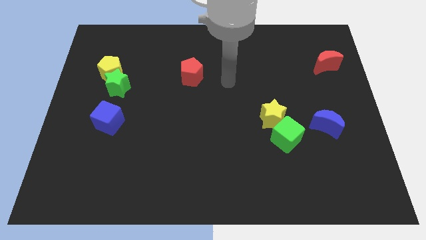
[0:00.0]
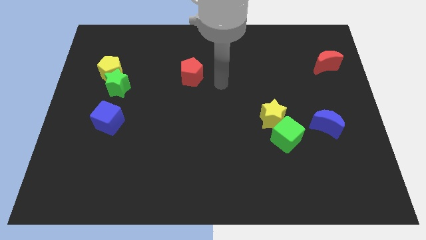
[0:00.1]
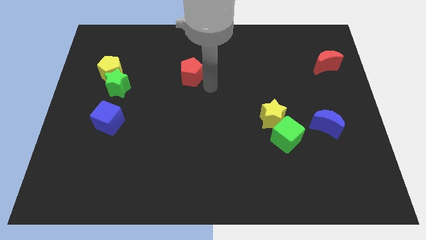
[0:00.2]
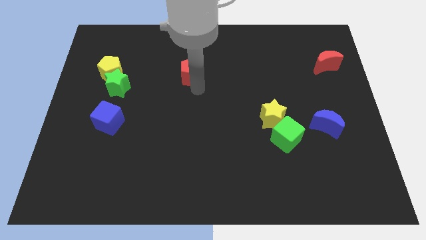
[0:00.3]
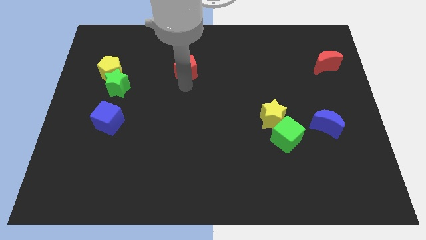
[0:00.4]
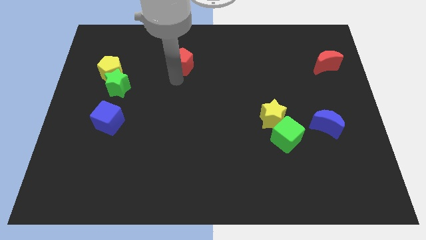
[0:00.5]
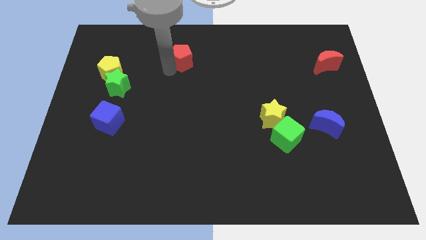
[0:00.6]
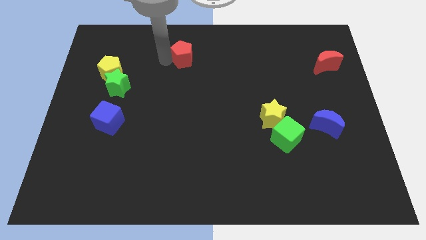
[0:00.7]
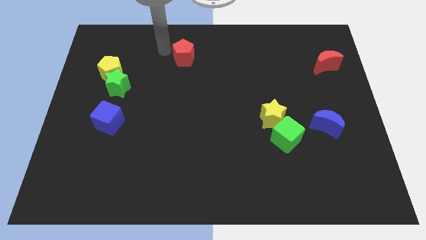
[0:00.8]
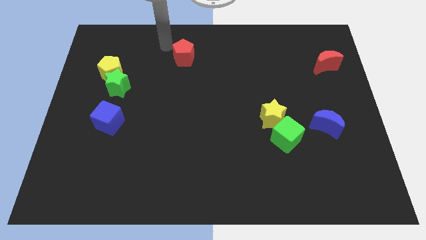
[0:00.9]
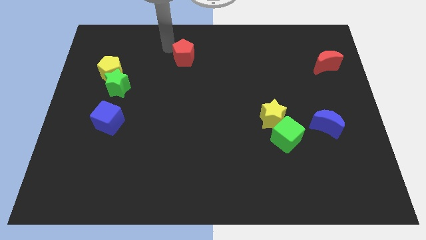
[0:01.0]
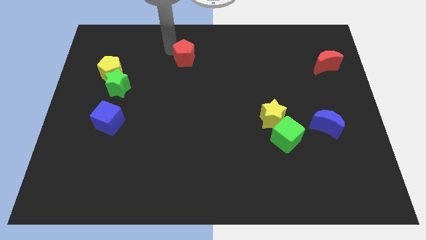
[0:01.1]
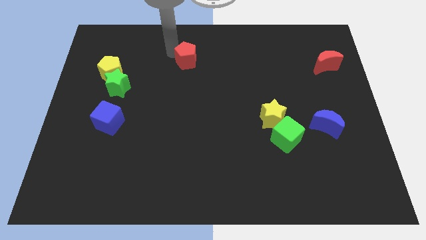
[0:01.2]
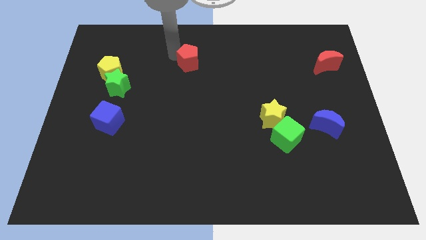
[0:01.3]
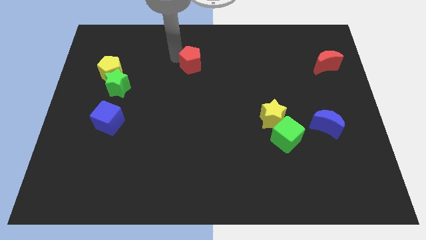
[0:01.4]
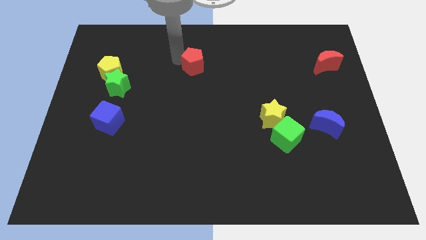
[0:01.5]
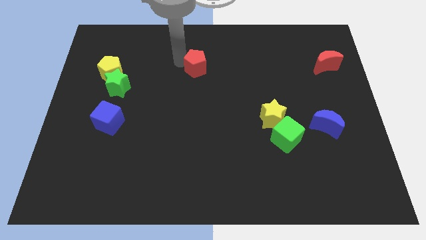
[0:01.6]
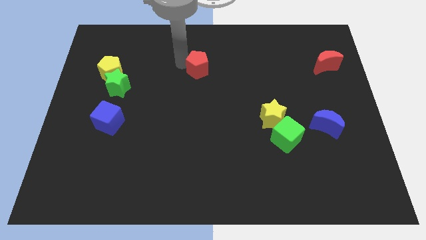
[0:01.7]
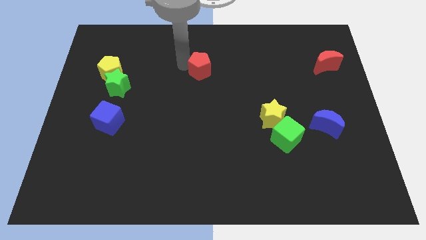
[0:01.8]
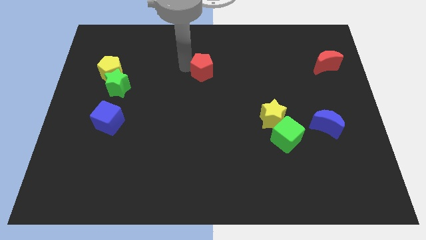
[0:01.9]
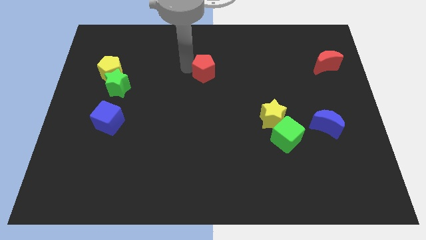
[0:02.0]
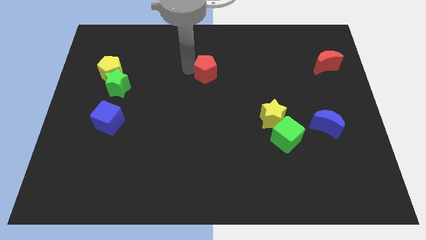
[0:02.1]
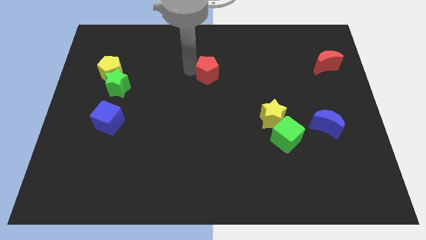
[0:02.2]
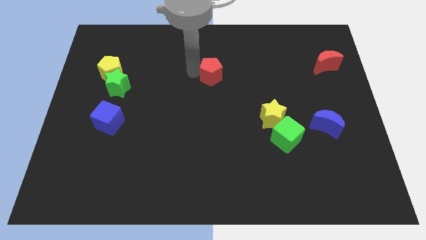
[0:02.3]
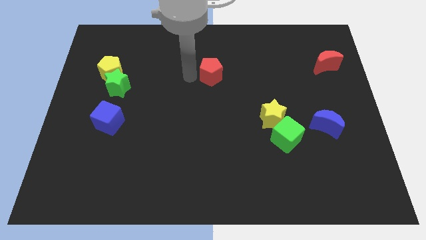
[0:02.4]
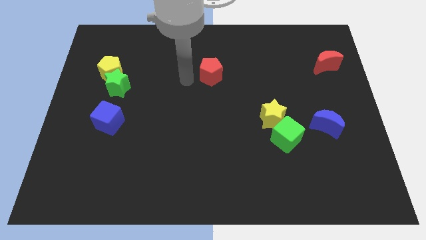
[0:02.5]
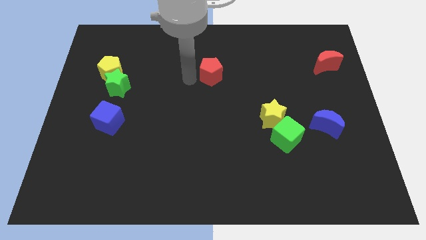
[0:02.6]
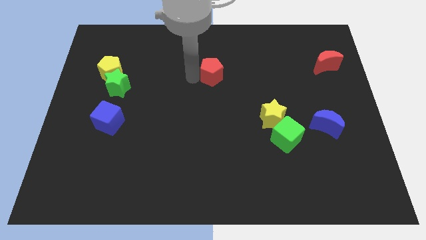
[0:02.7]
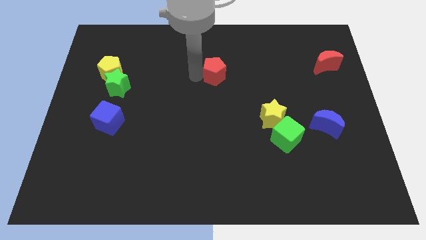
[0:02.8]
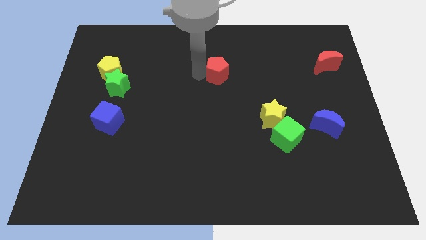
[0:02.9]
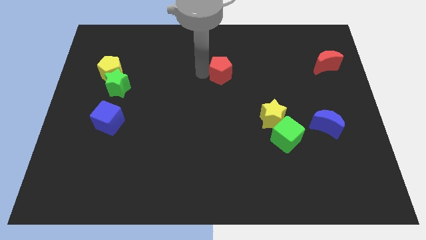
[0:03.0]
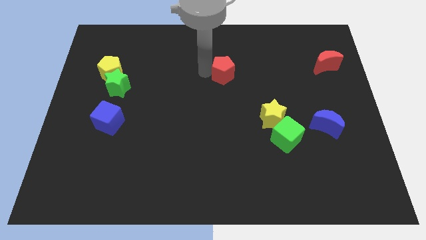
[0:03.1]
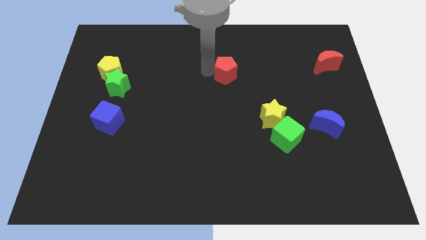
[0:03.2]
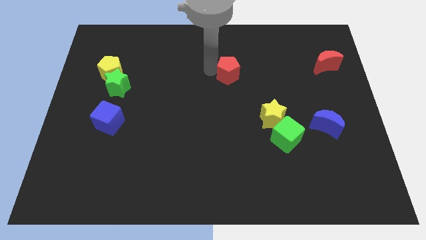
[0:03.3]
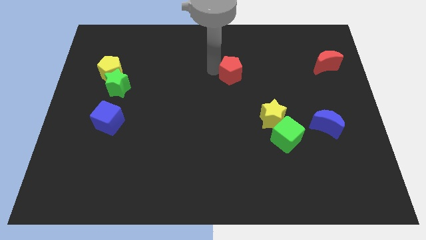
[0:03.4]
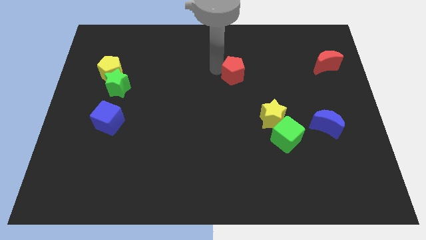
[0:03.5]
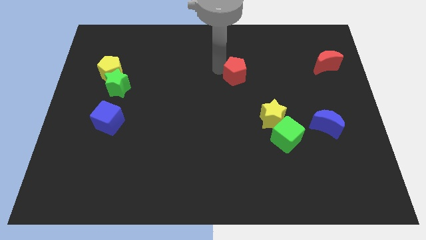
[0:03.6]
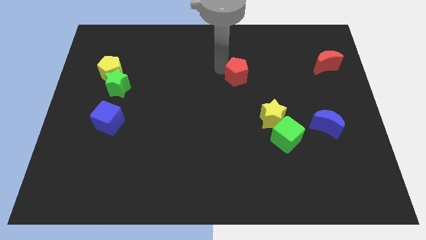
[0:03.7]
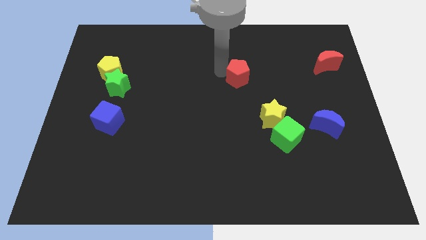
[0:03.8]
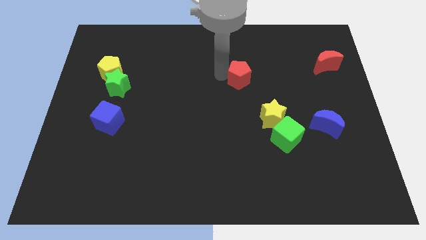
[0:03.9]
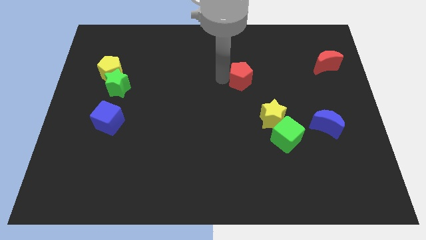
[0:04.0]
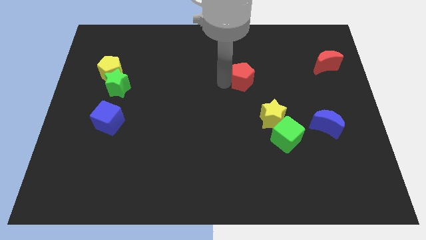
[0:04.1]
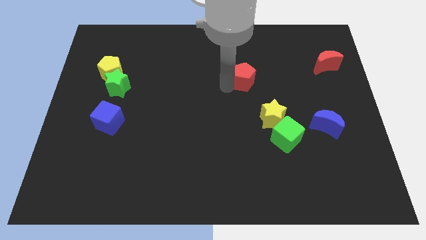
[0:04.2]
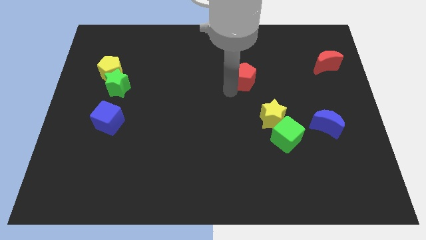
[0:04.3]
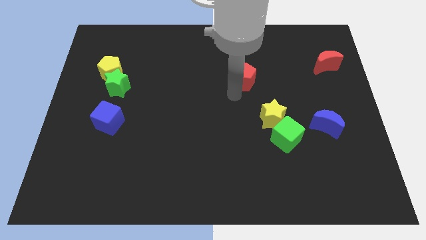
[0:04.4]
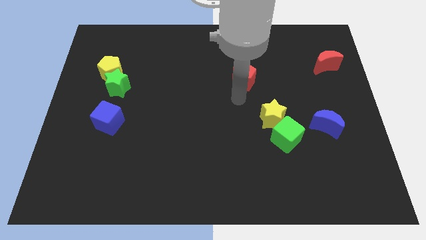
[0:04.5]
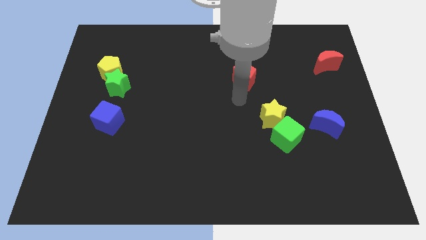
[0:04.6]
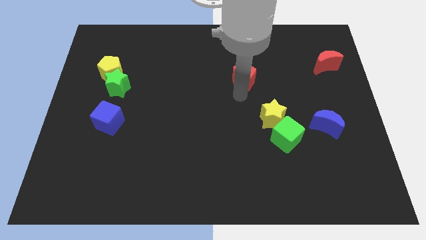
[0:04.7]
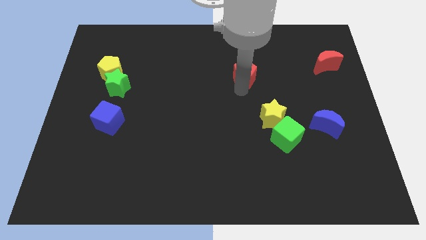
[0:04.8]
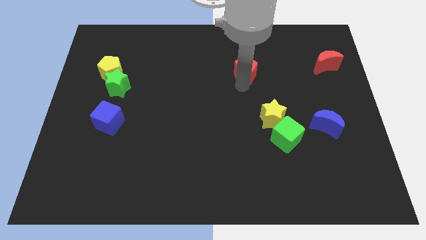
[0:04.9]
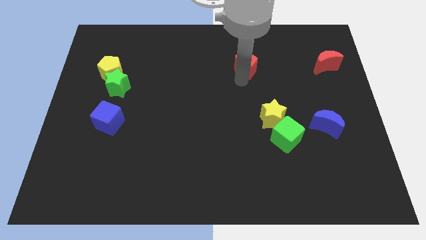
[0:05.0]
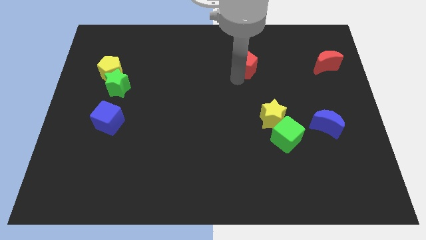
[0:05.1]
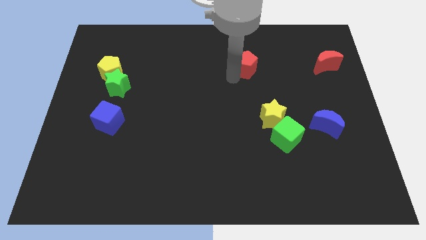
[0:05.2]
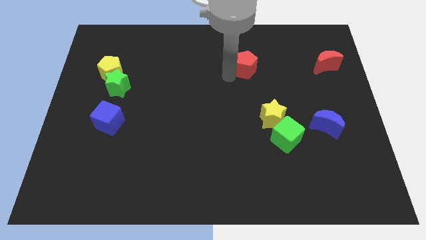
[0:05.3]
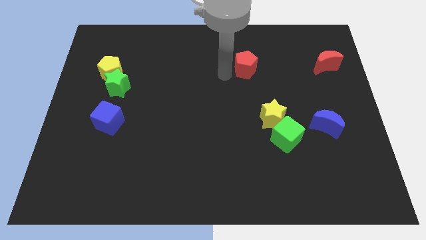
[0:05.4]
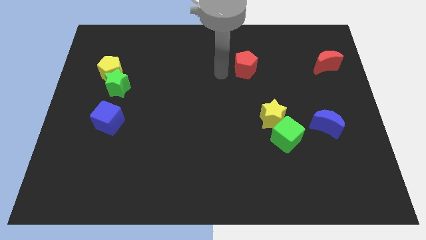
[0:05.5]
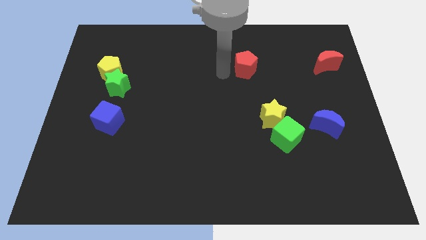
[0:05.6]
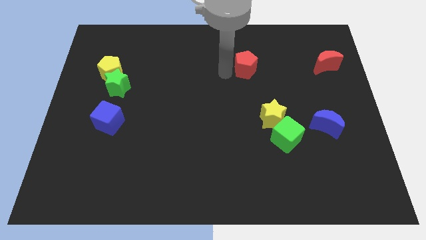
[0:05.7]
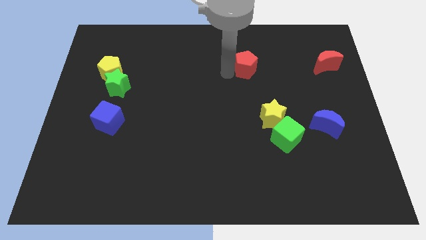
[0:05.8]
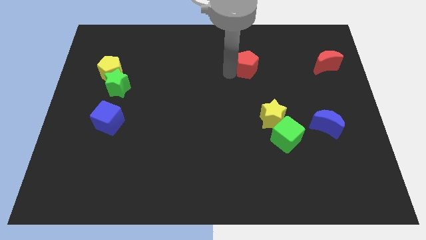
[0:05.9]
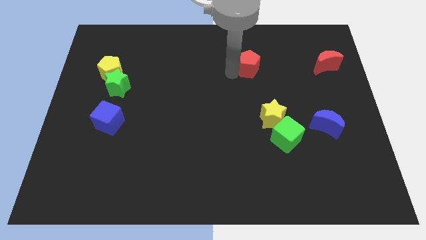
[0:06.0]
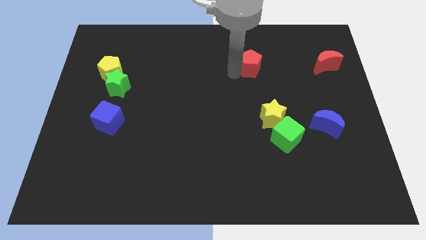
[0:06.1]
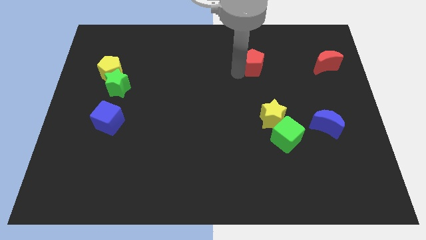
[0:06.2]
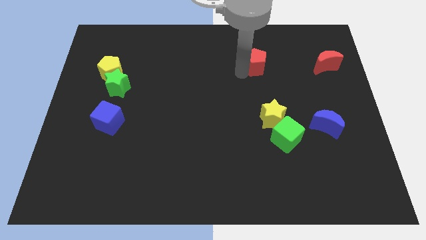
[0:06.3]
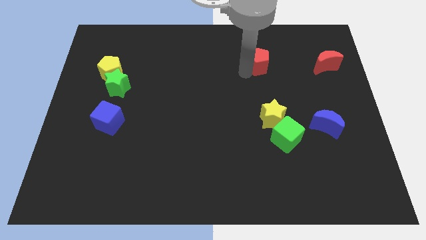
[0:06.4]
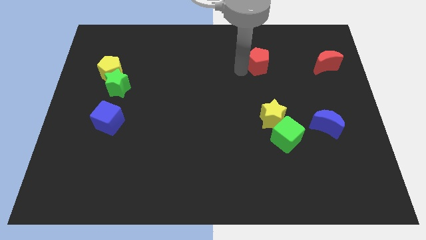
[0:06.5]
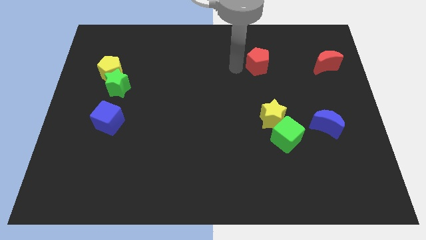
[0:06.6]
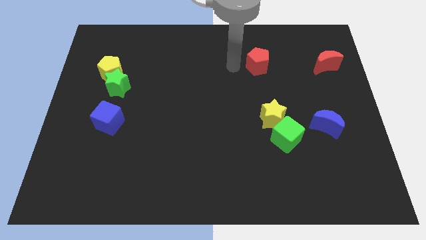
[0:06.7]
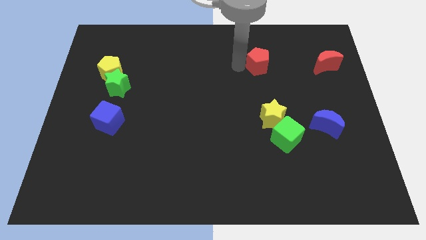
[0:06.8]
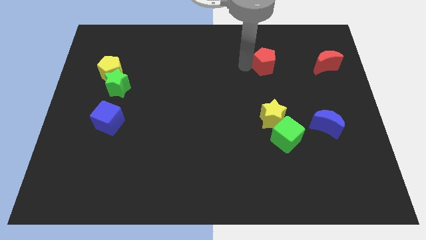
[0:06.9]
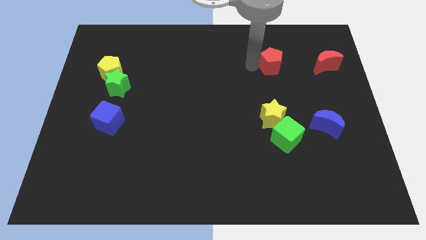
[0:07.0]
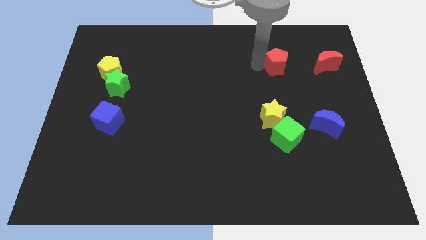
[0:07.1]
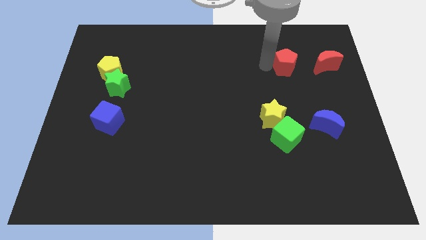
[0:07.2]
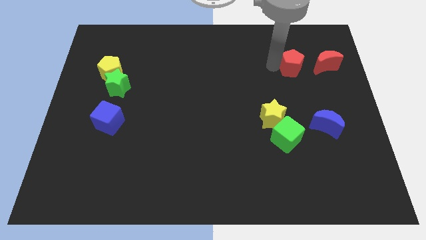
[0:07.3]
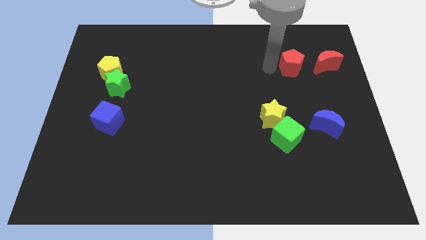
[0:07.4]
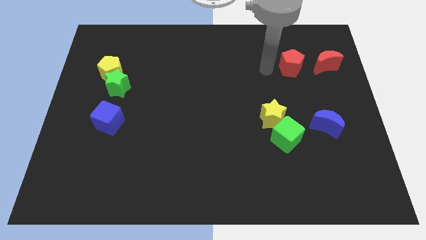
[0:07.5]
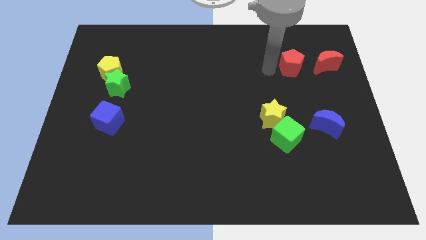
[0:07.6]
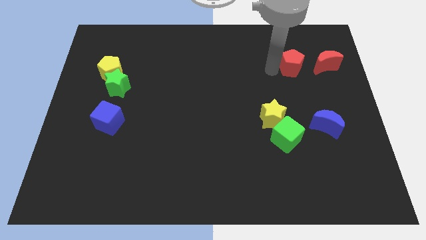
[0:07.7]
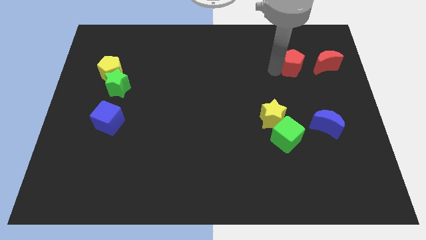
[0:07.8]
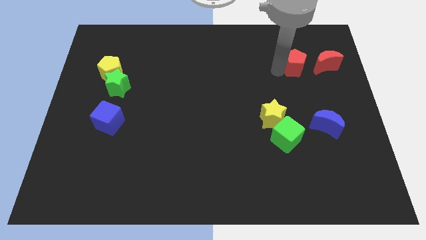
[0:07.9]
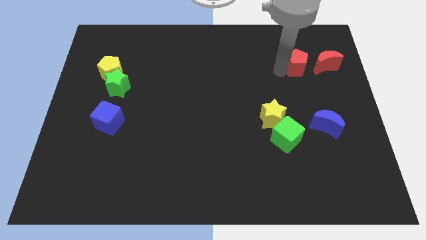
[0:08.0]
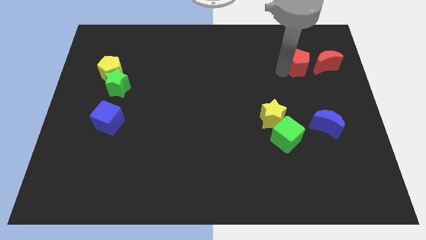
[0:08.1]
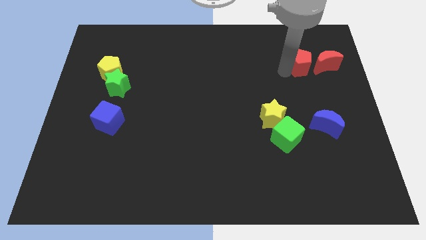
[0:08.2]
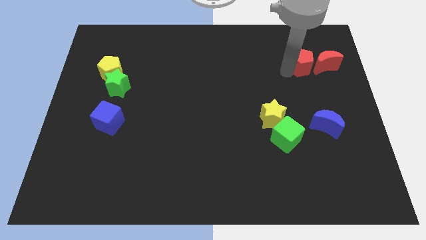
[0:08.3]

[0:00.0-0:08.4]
move the red pentagon to the red moon
